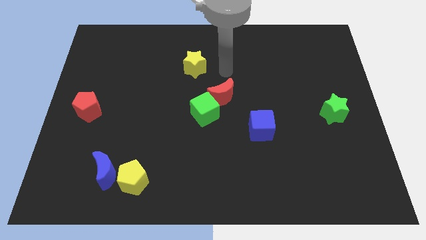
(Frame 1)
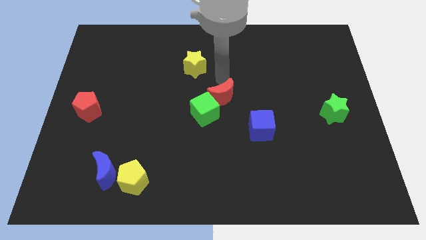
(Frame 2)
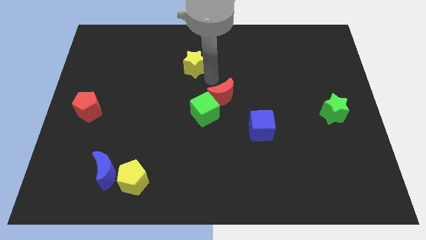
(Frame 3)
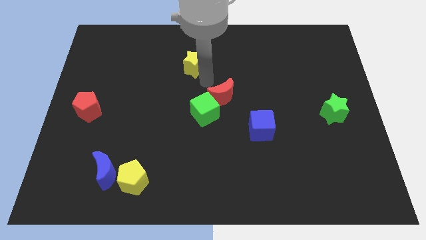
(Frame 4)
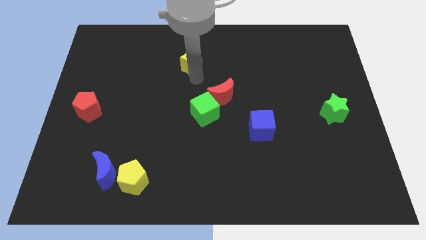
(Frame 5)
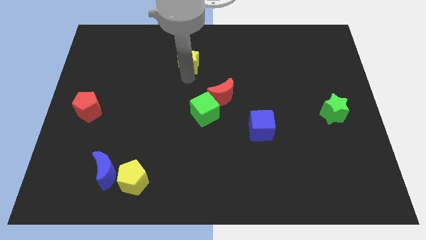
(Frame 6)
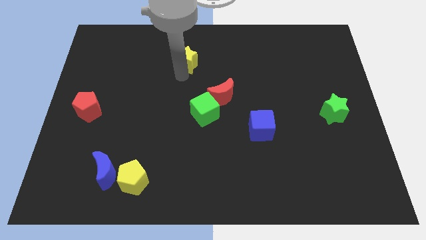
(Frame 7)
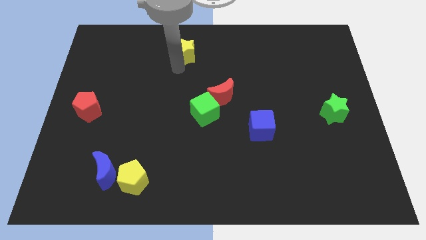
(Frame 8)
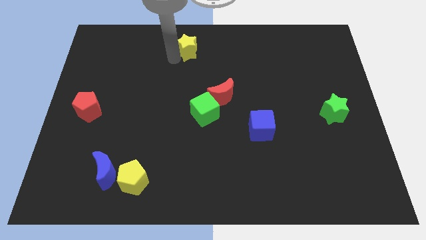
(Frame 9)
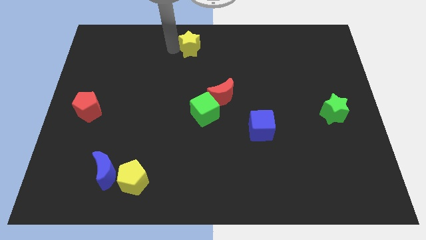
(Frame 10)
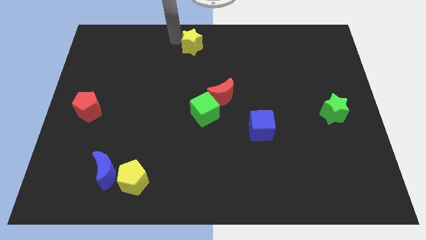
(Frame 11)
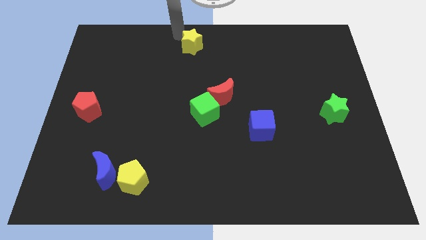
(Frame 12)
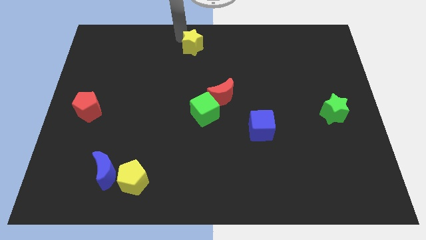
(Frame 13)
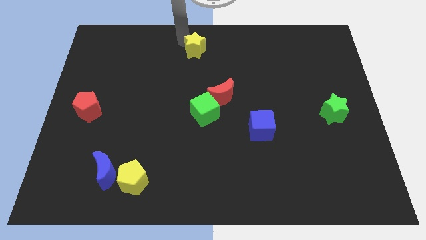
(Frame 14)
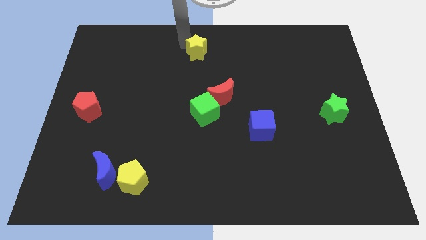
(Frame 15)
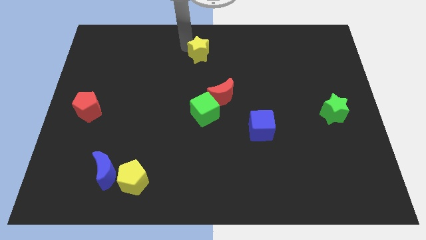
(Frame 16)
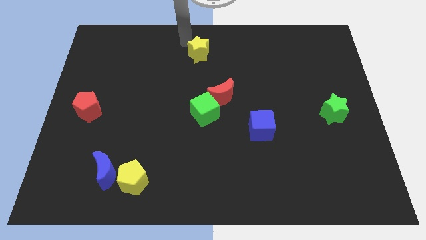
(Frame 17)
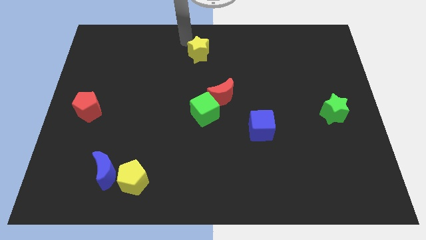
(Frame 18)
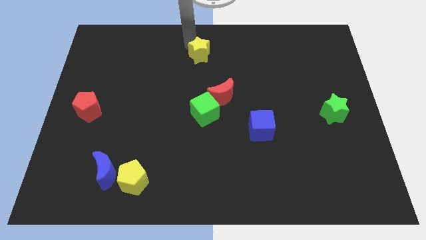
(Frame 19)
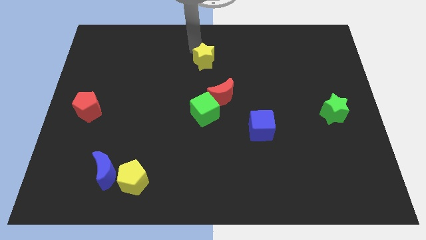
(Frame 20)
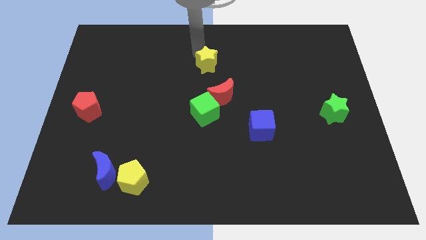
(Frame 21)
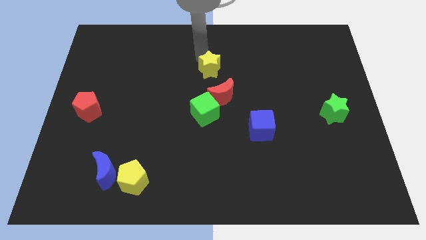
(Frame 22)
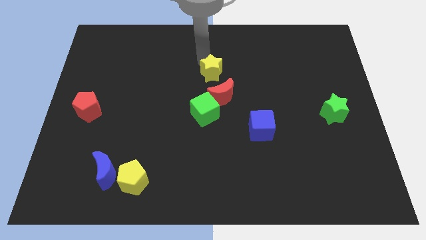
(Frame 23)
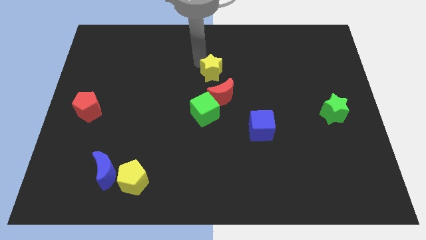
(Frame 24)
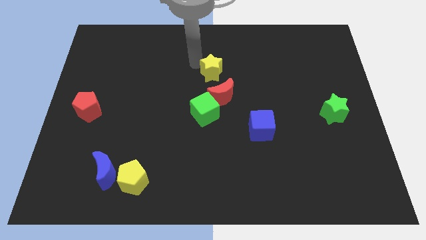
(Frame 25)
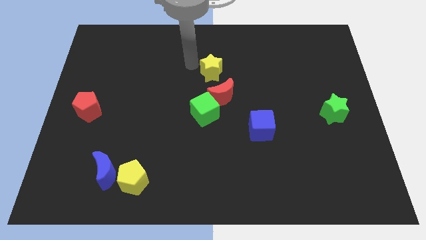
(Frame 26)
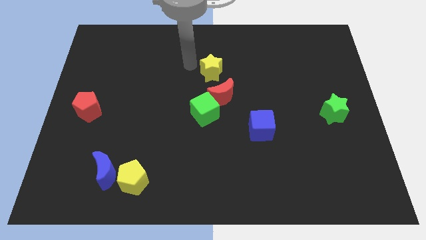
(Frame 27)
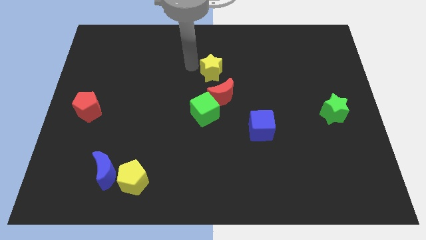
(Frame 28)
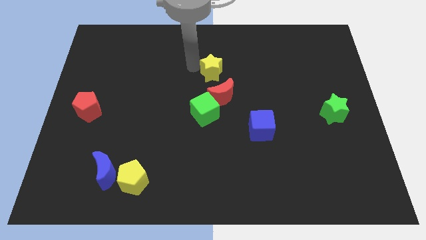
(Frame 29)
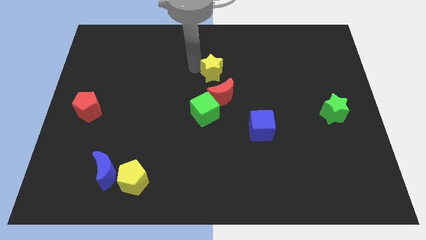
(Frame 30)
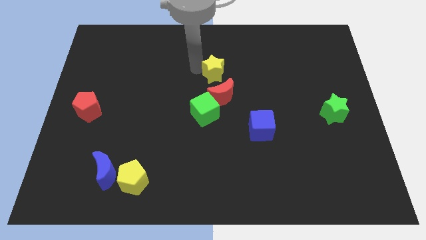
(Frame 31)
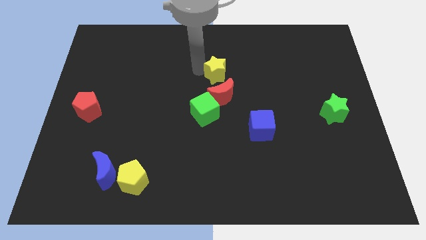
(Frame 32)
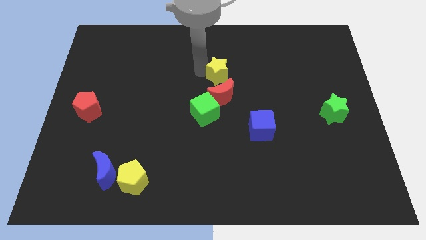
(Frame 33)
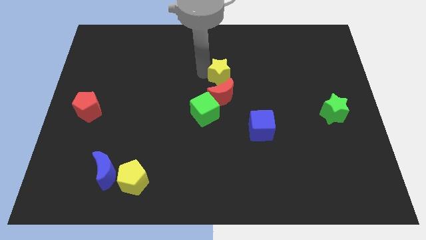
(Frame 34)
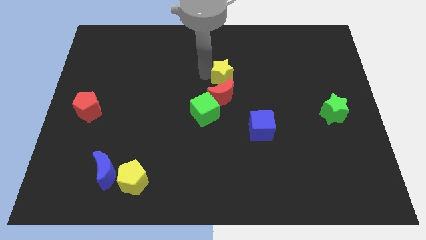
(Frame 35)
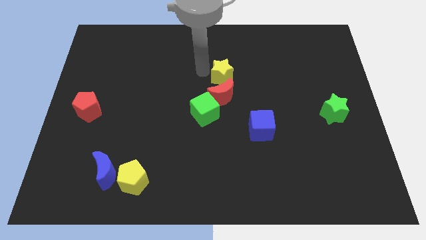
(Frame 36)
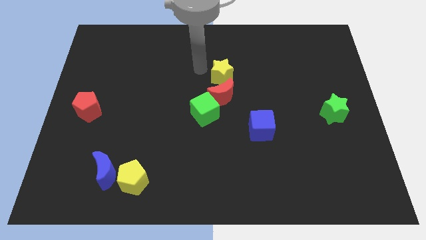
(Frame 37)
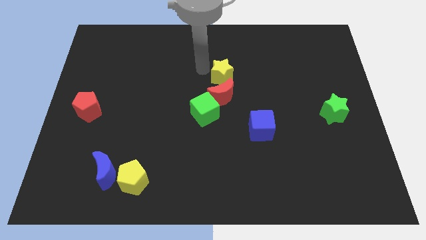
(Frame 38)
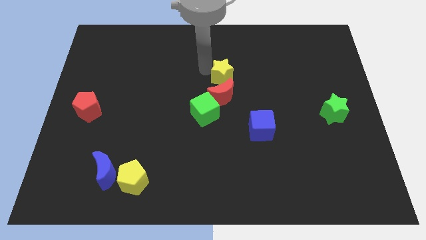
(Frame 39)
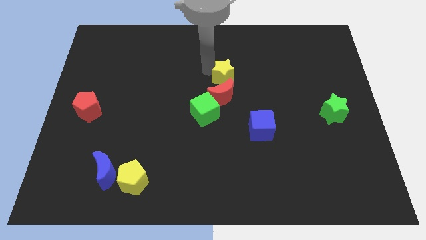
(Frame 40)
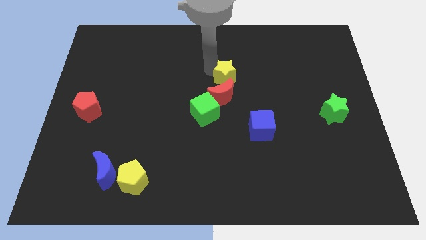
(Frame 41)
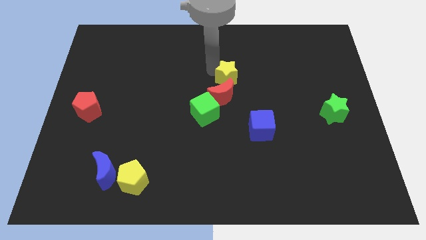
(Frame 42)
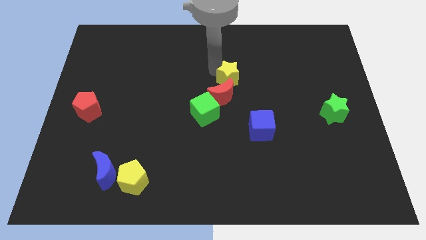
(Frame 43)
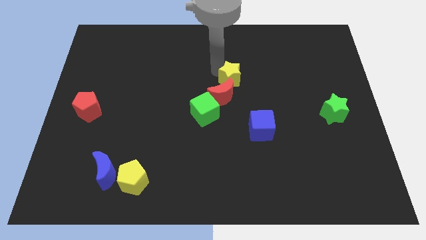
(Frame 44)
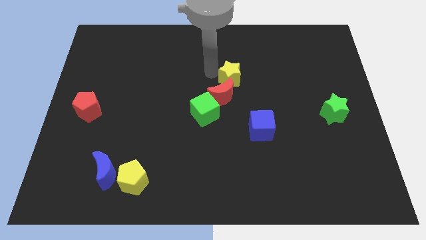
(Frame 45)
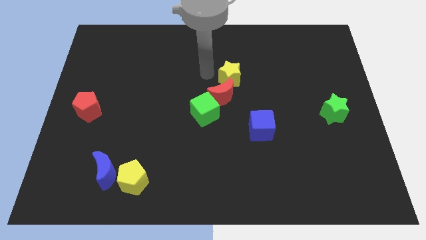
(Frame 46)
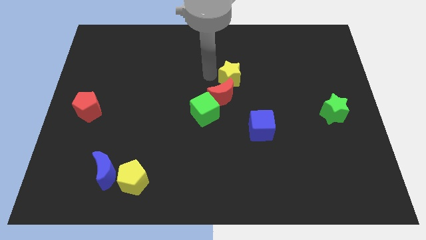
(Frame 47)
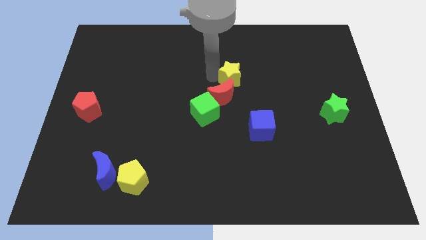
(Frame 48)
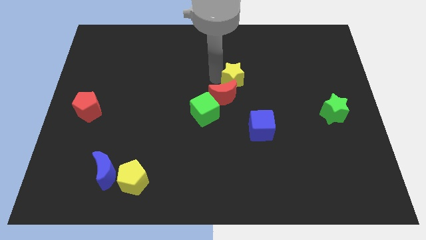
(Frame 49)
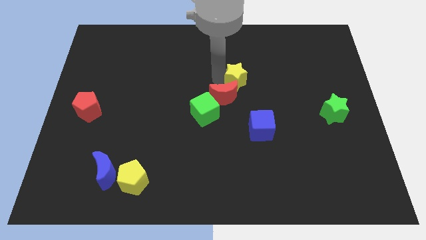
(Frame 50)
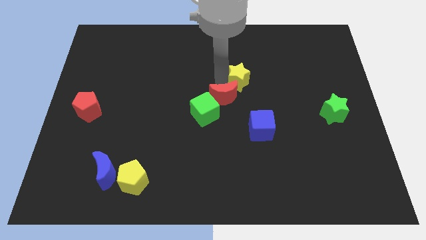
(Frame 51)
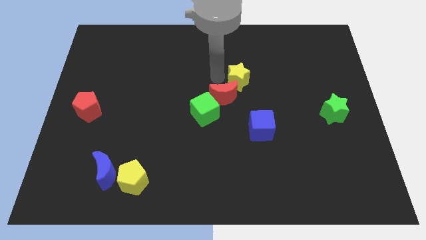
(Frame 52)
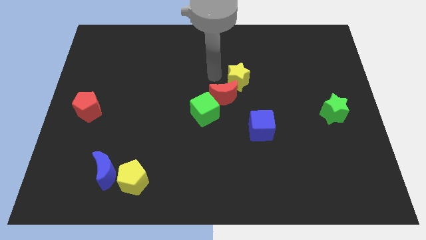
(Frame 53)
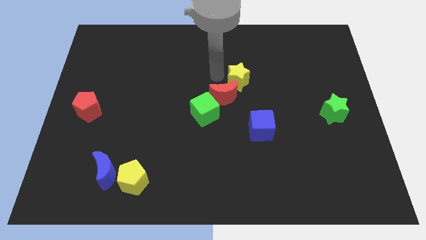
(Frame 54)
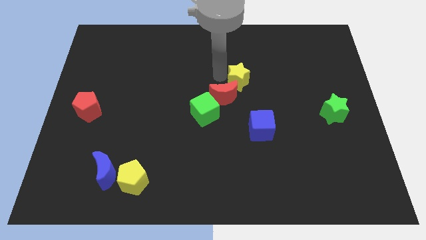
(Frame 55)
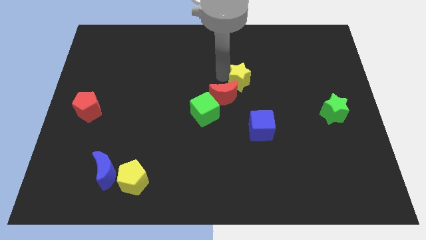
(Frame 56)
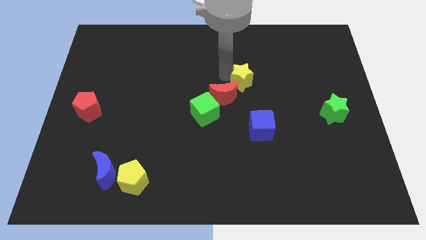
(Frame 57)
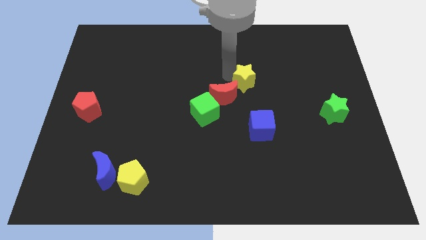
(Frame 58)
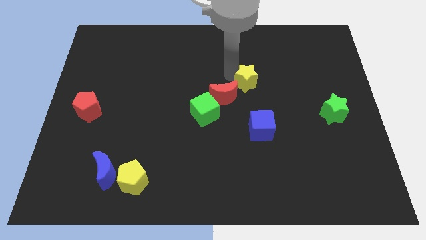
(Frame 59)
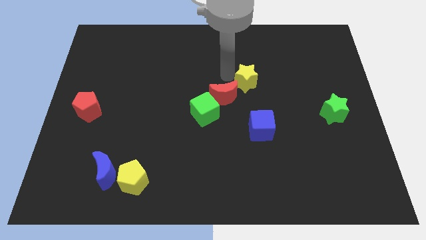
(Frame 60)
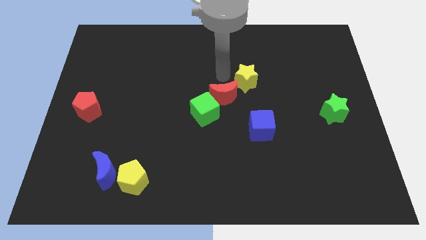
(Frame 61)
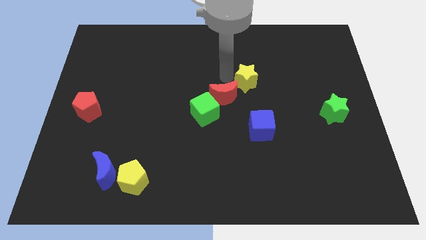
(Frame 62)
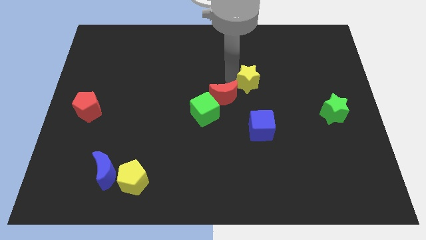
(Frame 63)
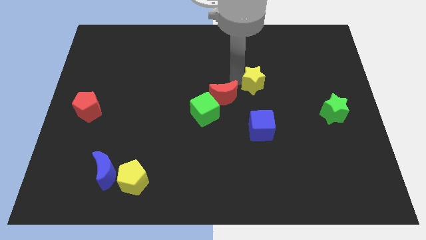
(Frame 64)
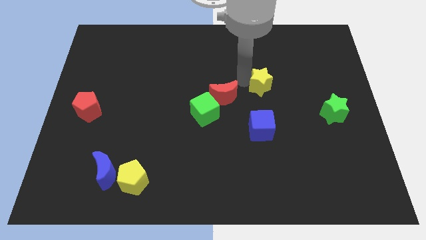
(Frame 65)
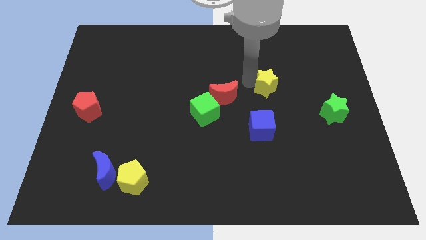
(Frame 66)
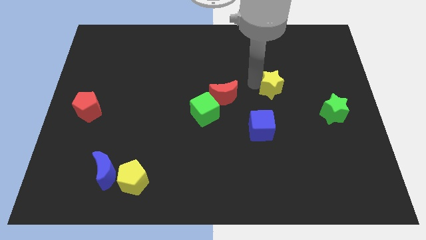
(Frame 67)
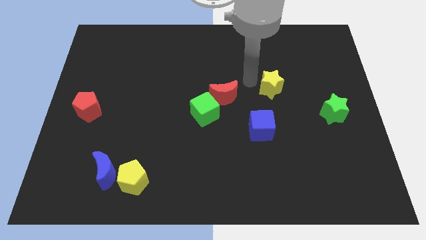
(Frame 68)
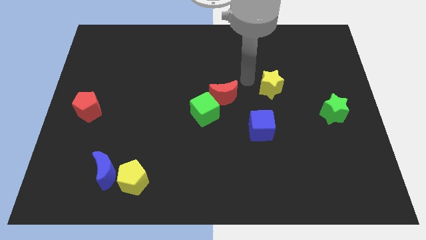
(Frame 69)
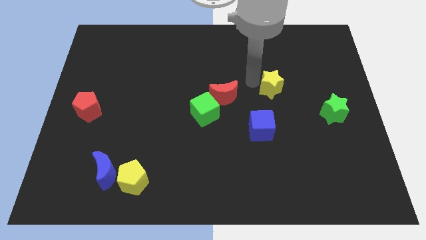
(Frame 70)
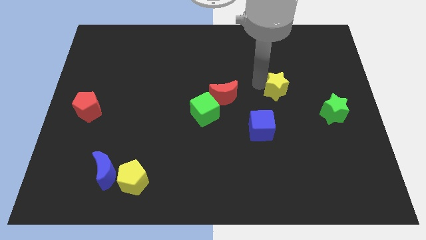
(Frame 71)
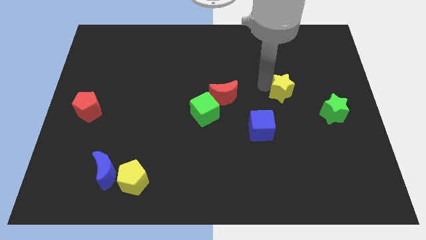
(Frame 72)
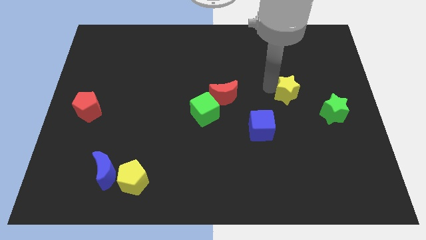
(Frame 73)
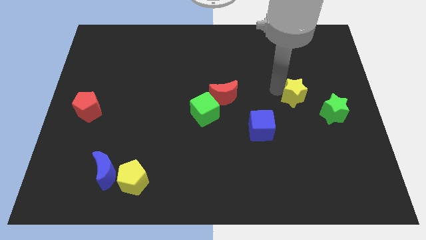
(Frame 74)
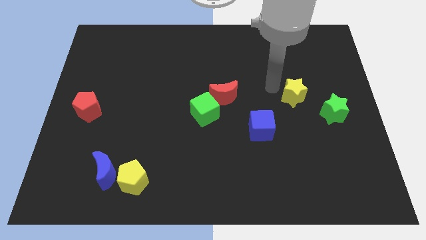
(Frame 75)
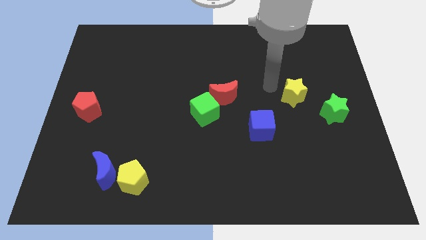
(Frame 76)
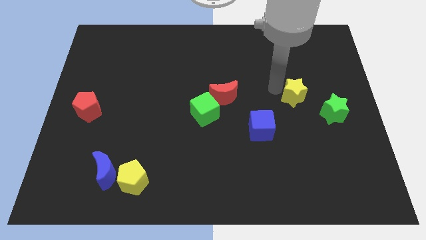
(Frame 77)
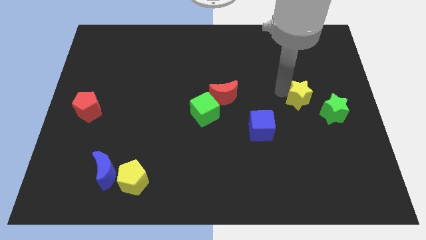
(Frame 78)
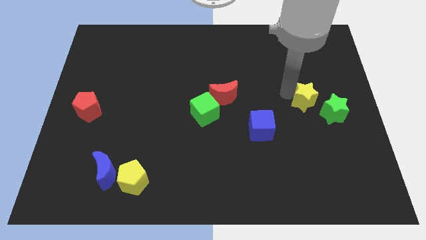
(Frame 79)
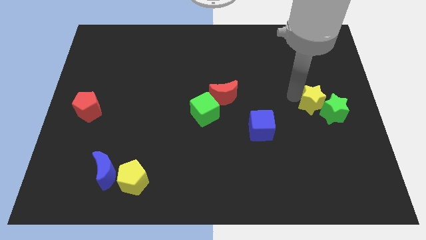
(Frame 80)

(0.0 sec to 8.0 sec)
push the yellow star towards the green star
